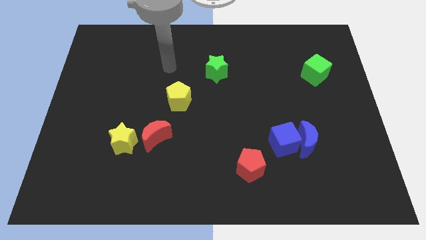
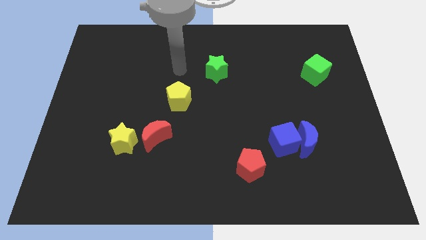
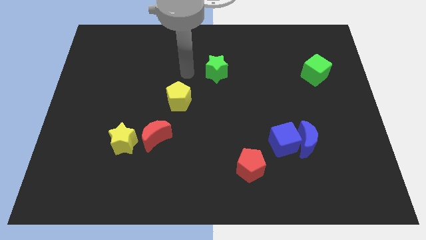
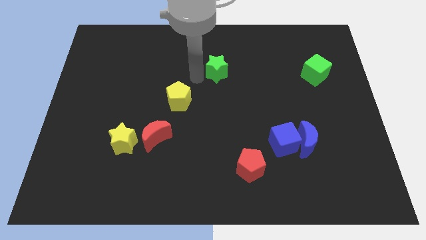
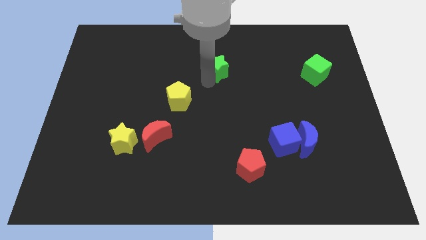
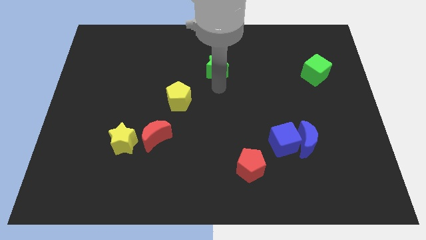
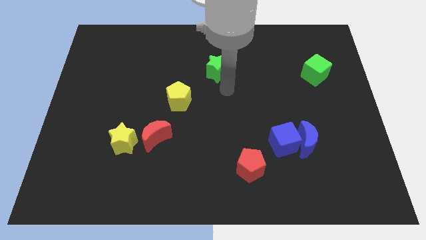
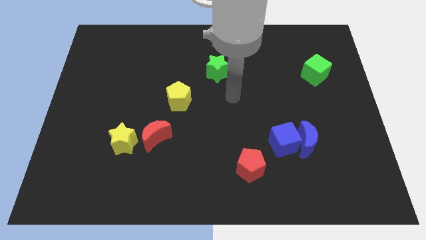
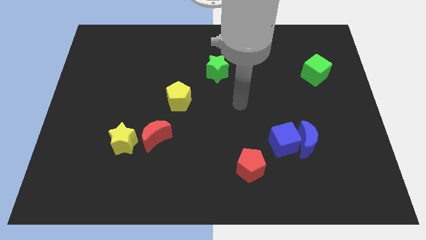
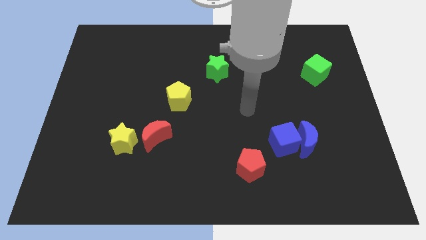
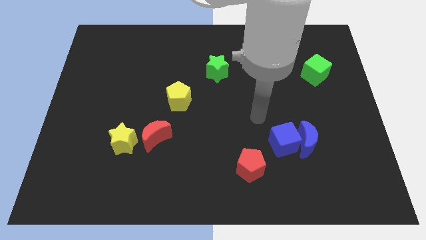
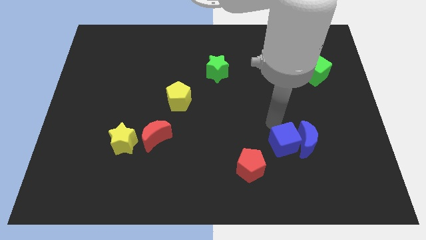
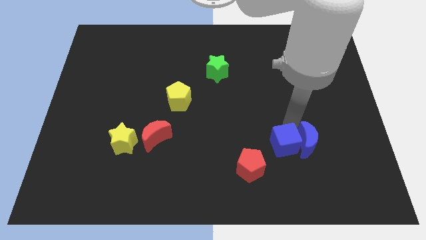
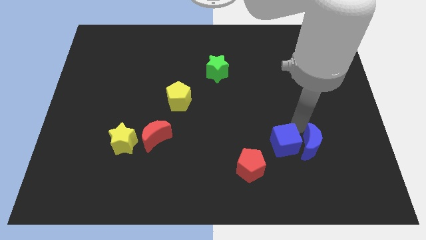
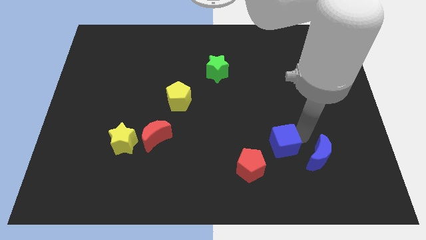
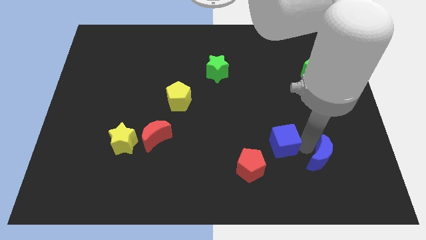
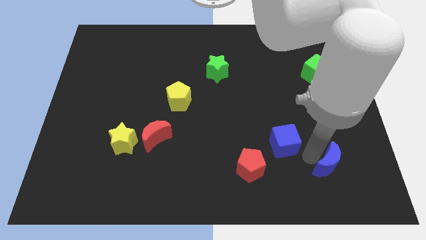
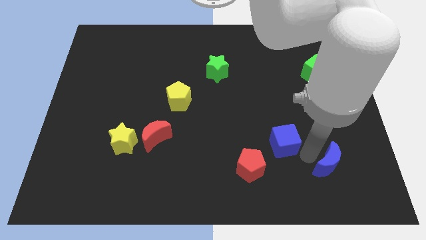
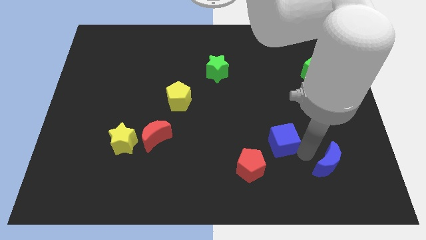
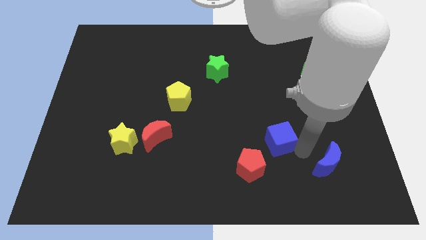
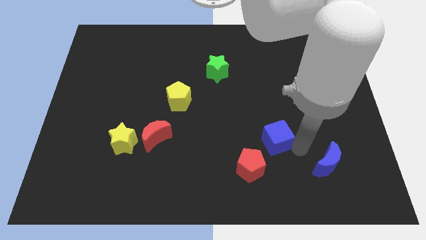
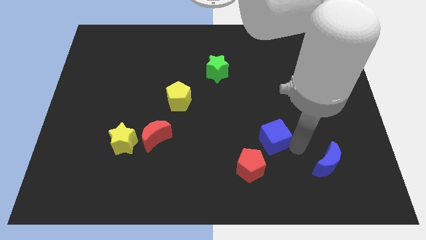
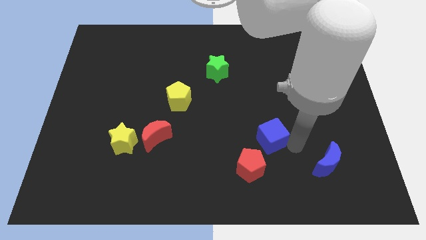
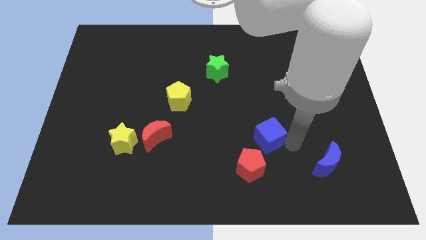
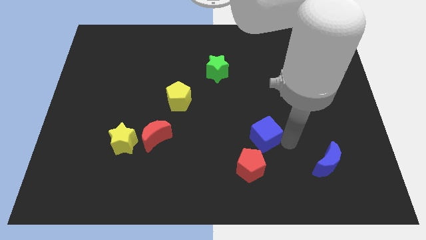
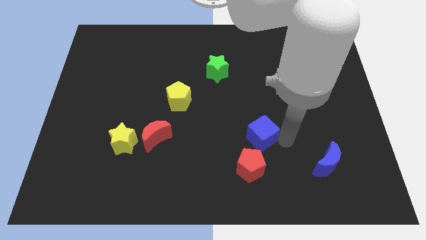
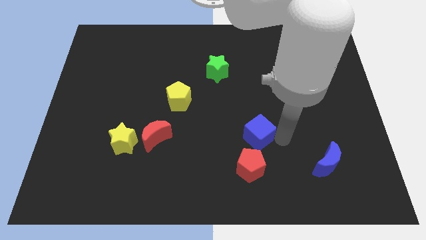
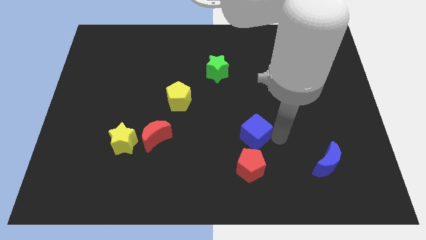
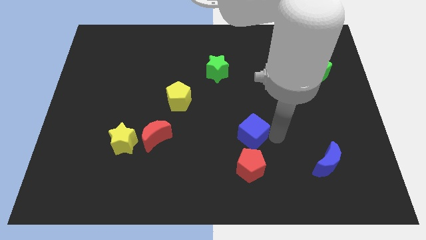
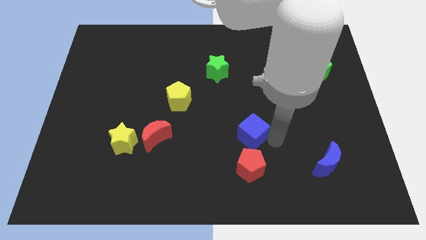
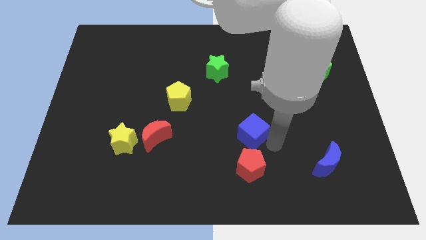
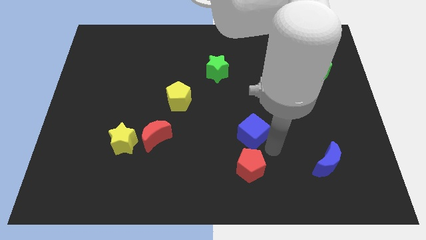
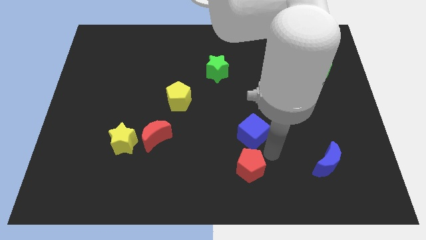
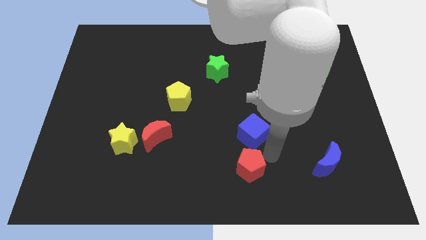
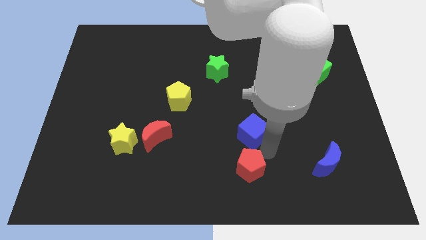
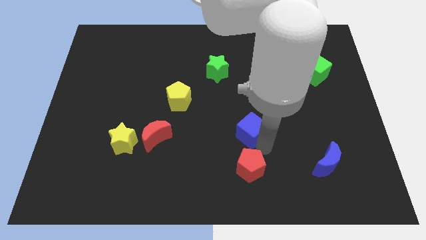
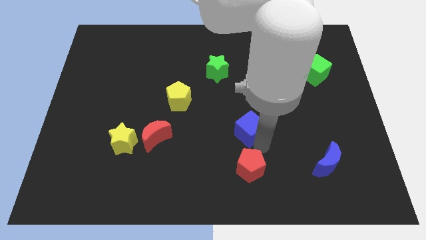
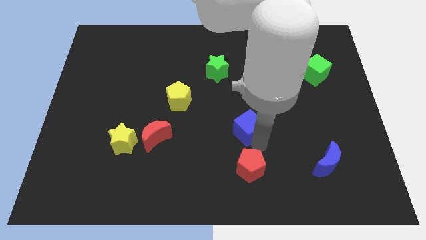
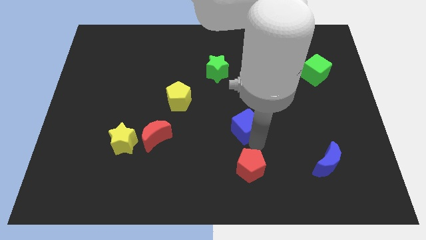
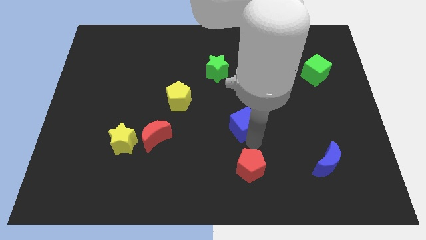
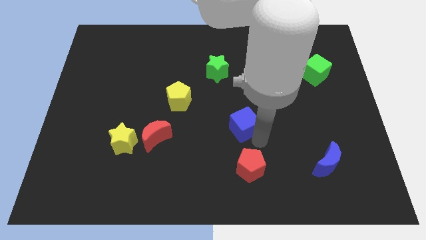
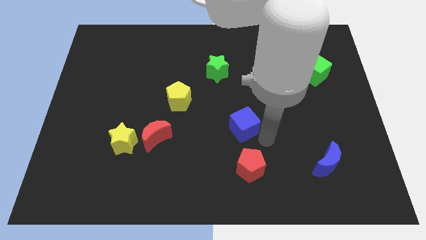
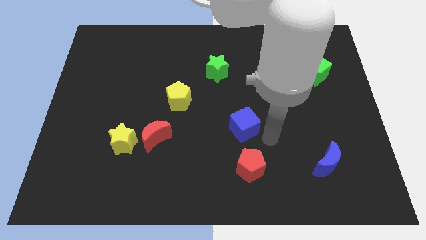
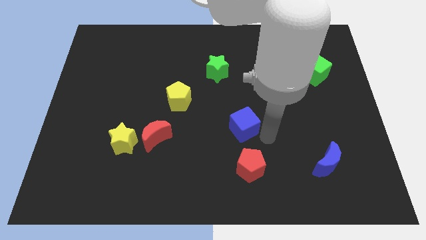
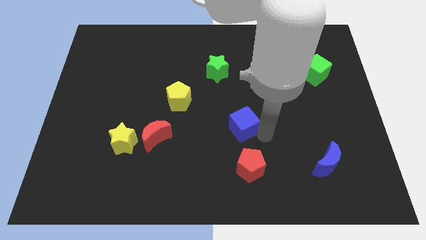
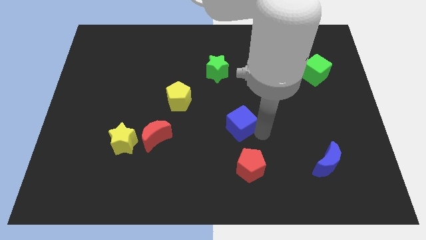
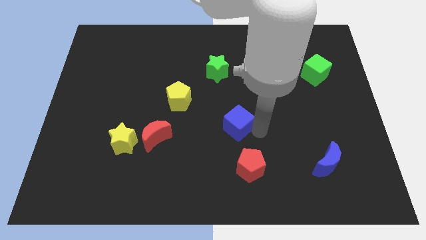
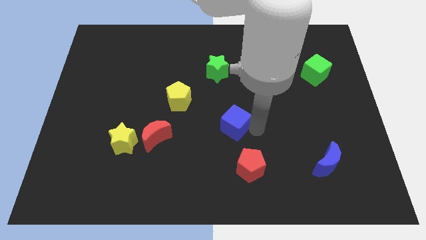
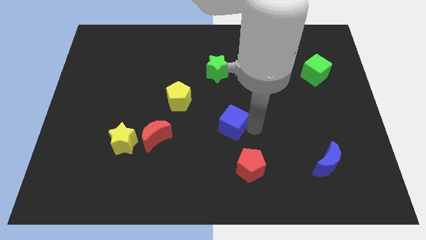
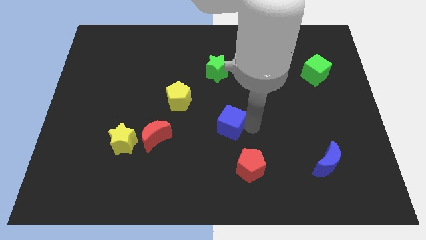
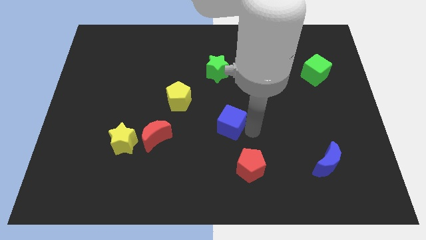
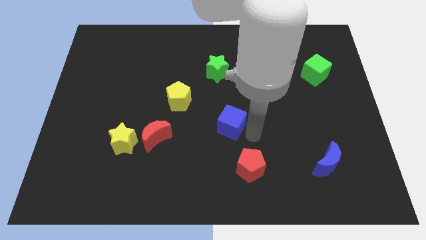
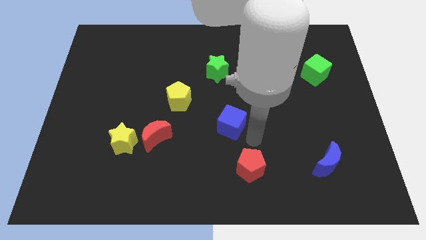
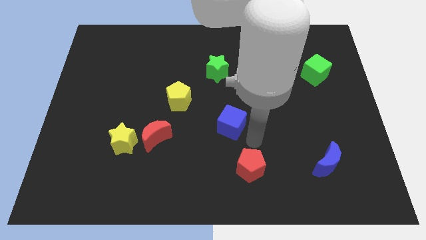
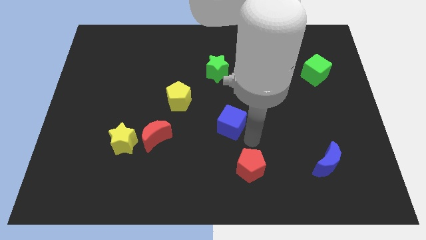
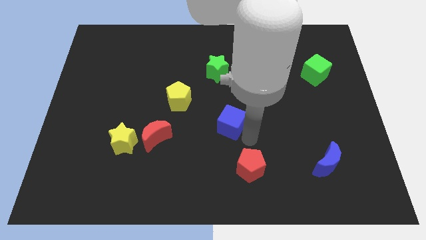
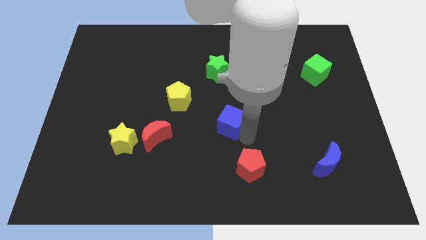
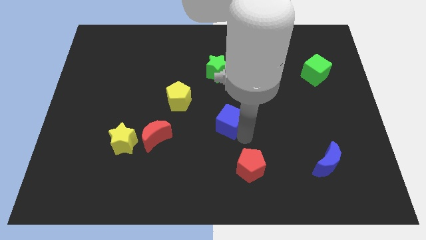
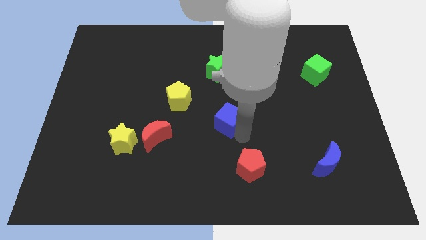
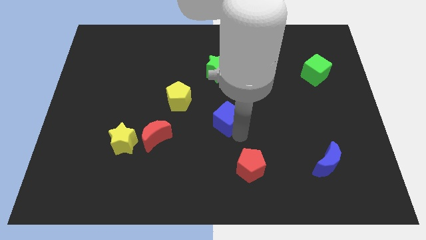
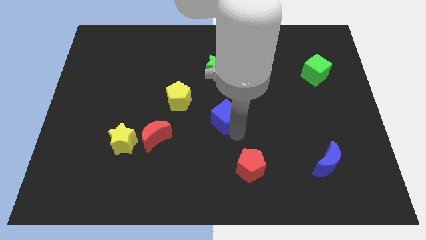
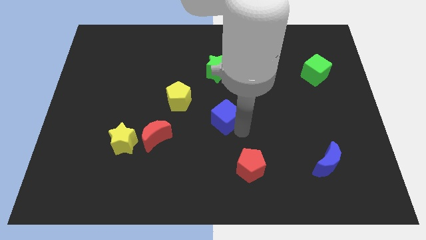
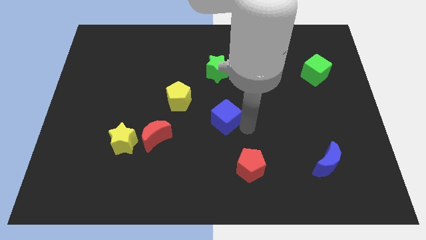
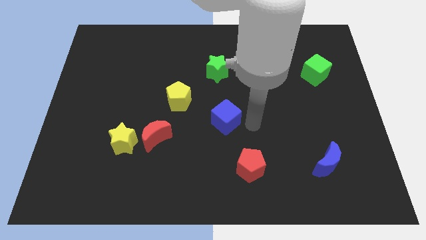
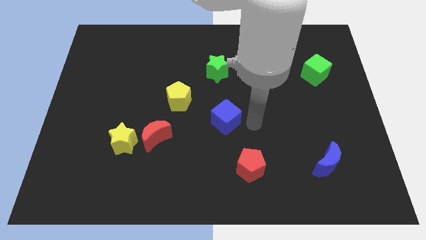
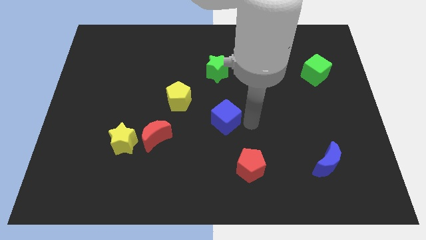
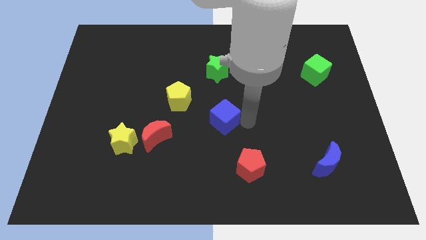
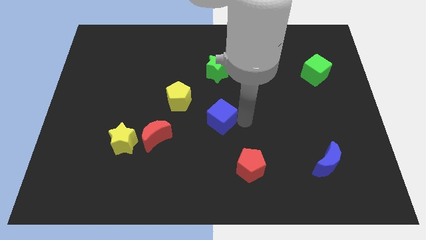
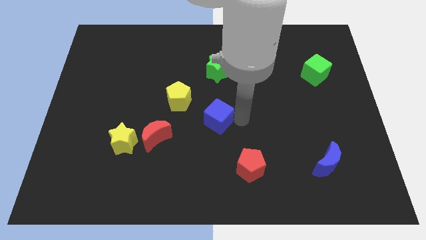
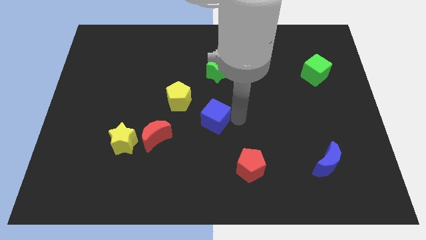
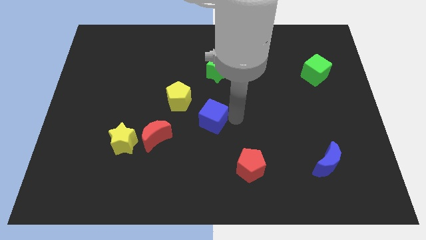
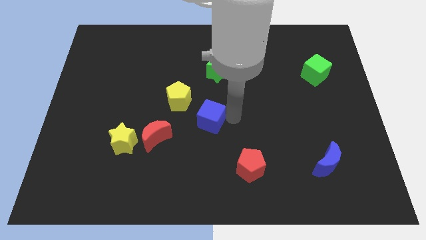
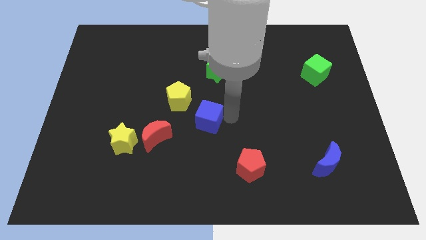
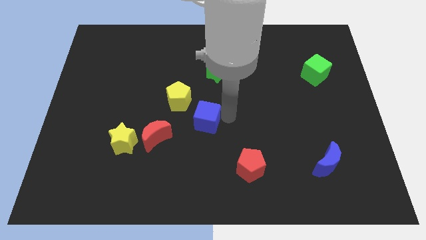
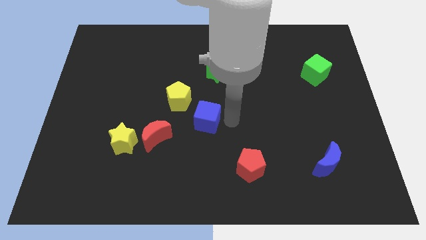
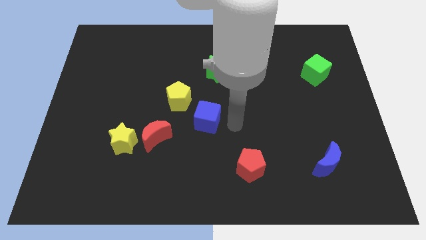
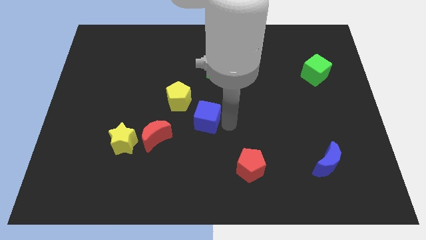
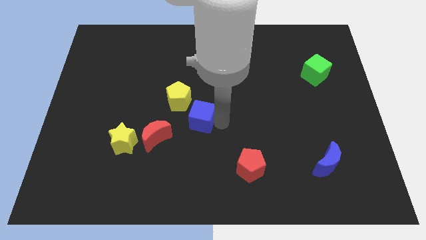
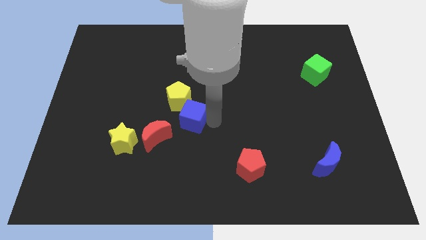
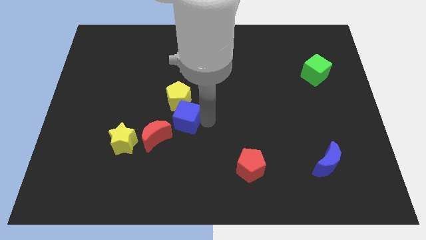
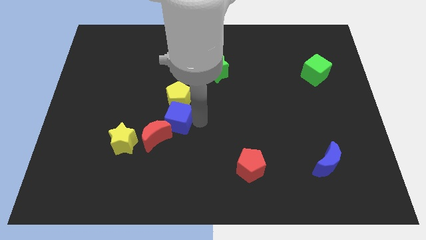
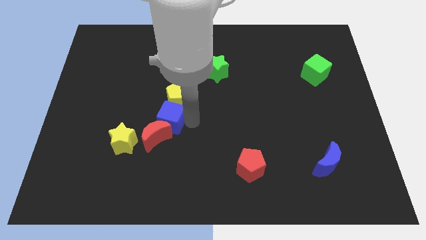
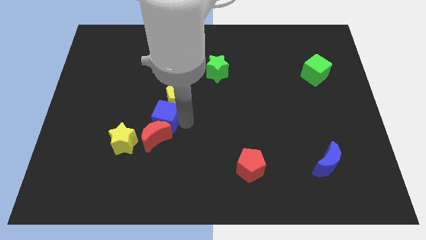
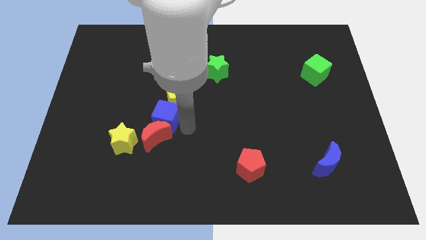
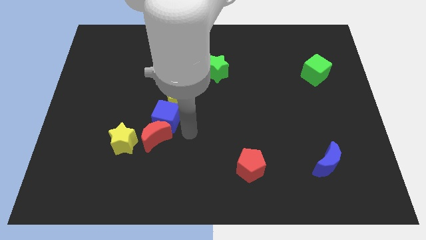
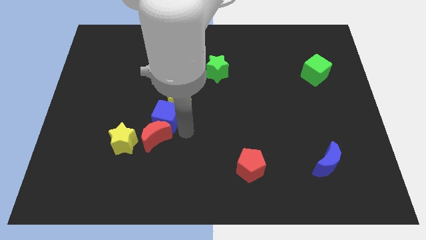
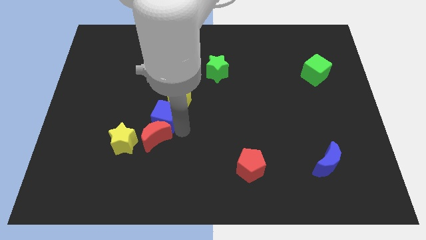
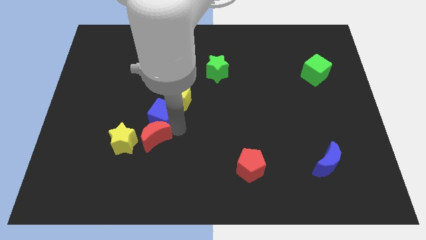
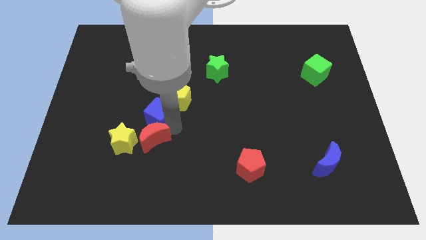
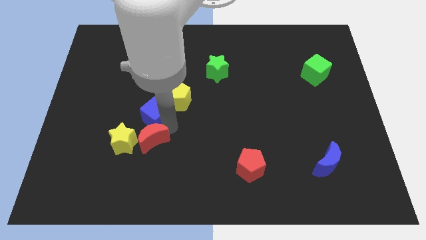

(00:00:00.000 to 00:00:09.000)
slide the blue cube to the left of the yellow pentagon
